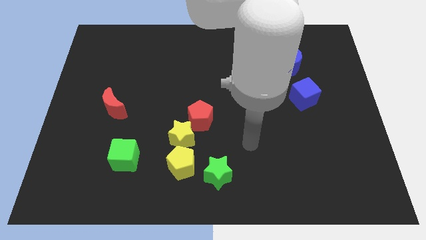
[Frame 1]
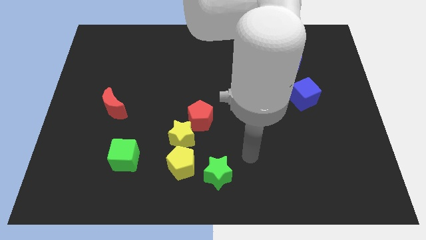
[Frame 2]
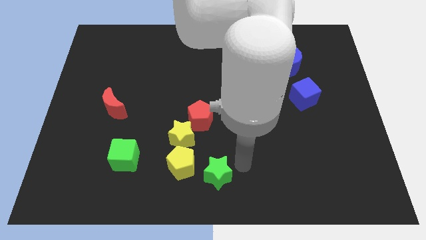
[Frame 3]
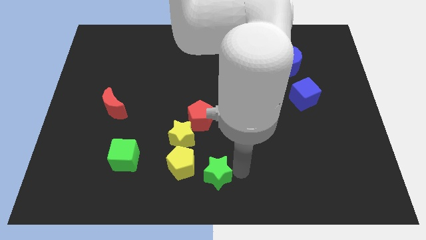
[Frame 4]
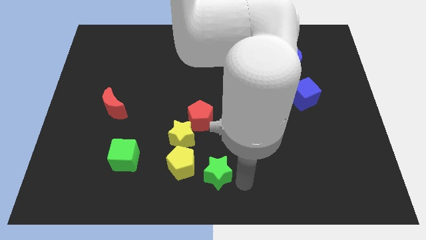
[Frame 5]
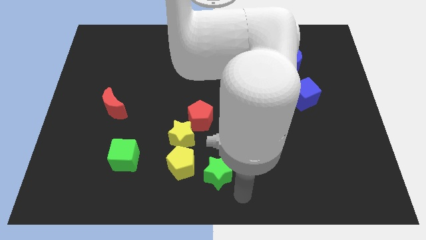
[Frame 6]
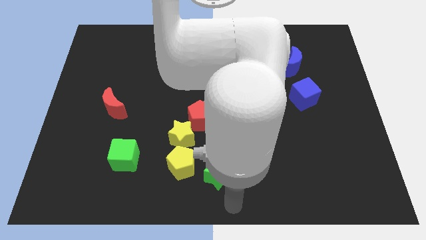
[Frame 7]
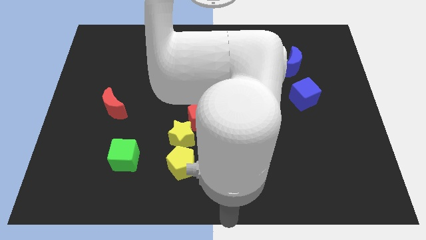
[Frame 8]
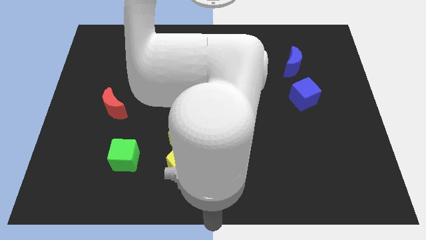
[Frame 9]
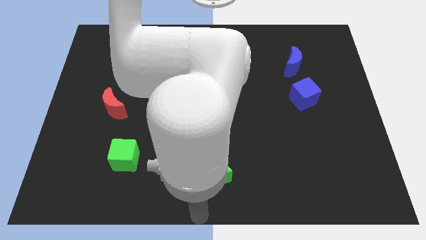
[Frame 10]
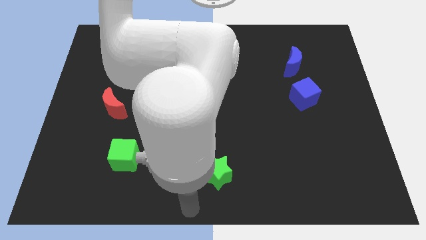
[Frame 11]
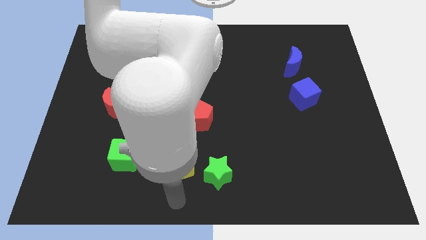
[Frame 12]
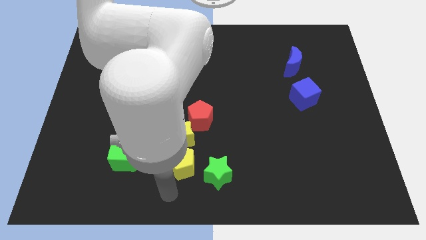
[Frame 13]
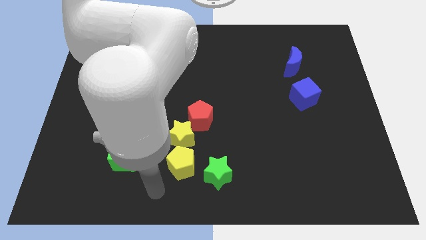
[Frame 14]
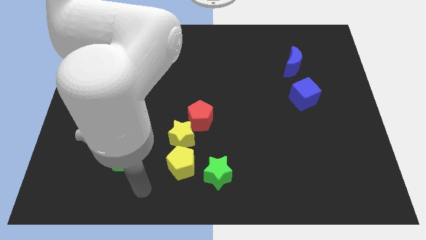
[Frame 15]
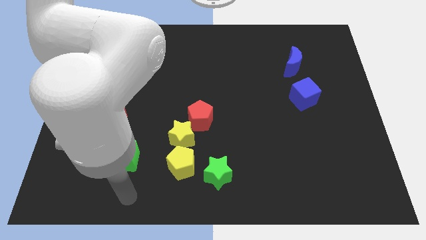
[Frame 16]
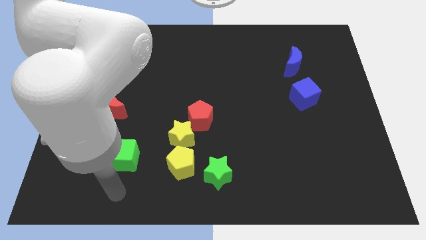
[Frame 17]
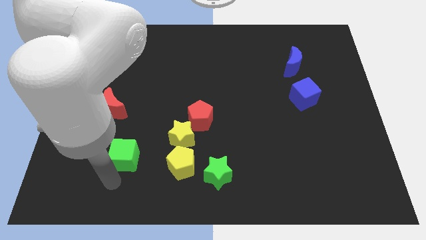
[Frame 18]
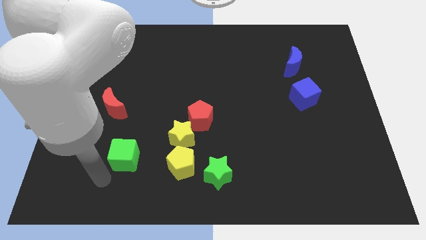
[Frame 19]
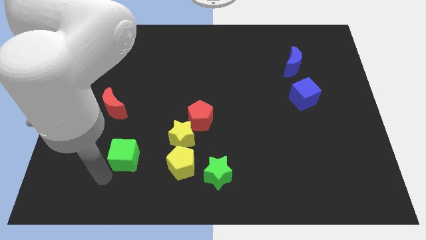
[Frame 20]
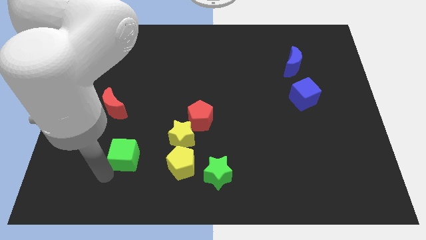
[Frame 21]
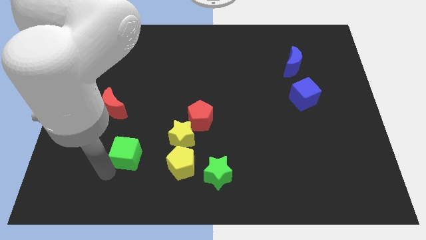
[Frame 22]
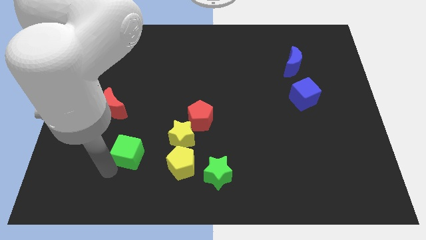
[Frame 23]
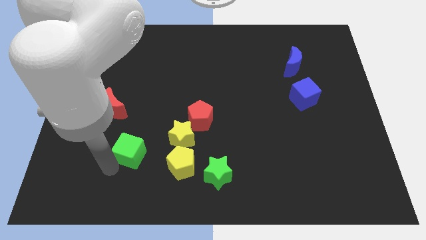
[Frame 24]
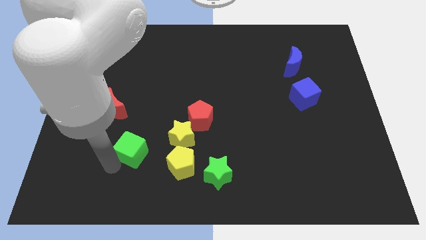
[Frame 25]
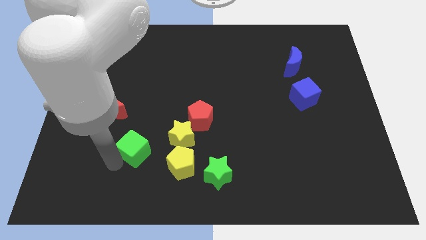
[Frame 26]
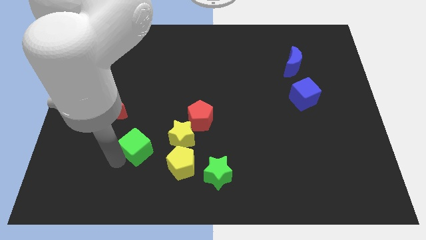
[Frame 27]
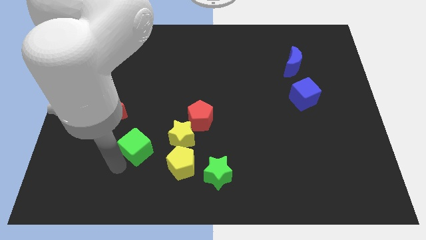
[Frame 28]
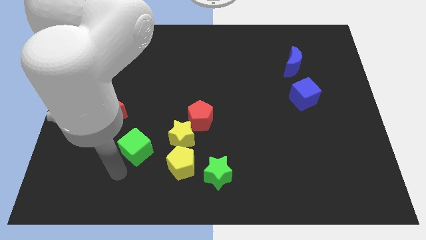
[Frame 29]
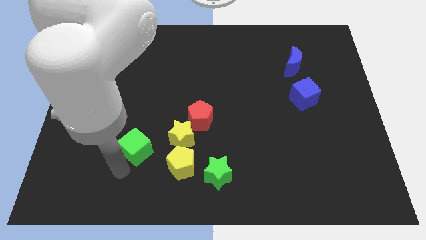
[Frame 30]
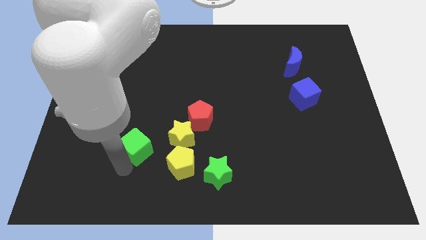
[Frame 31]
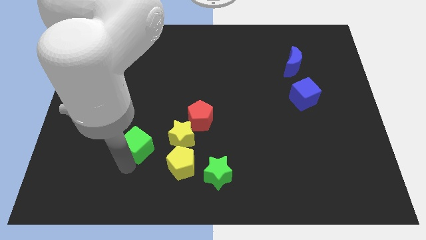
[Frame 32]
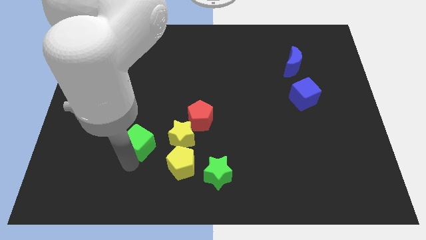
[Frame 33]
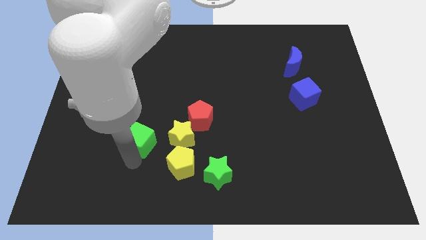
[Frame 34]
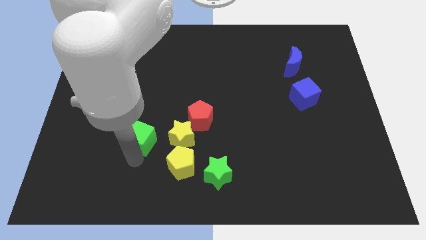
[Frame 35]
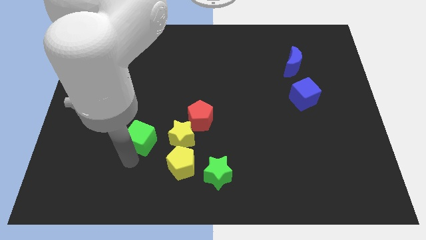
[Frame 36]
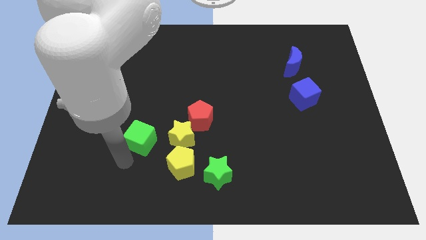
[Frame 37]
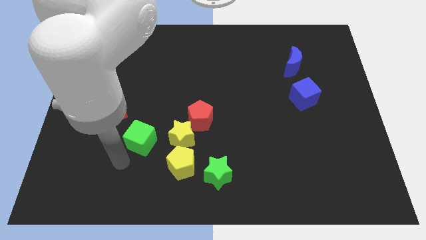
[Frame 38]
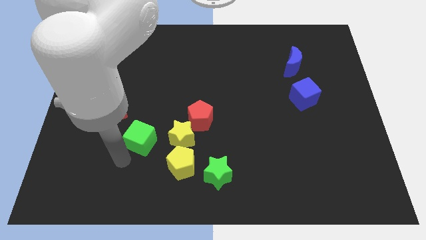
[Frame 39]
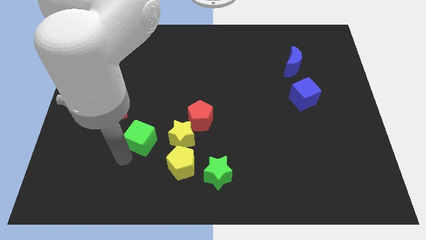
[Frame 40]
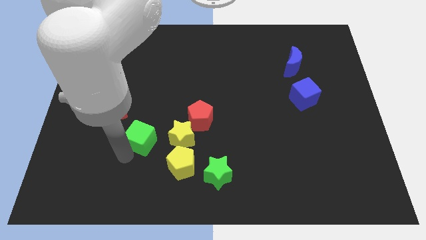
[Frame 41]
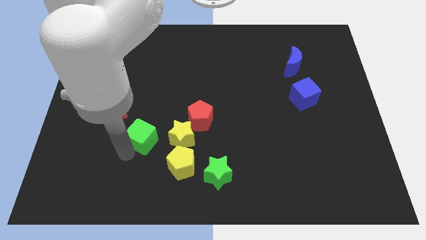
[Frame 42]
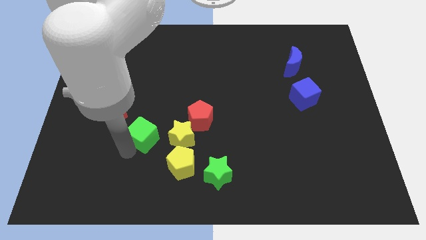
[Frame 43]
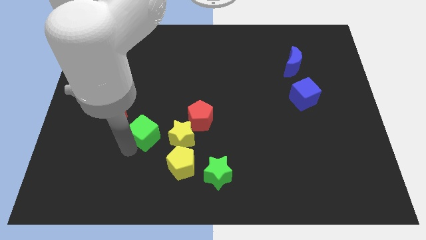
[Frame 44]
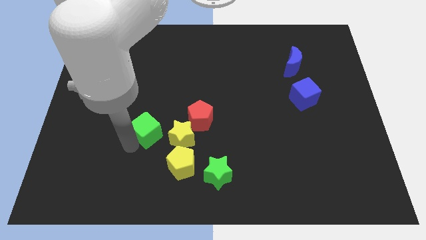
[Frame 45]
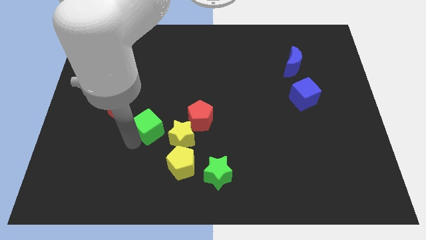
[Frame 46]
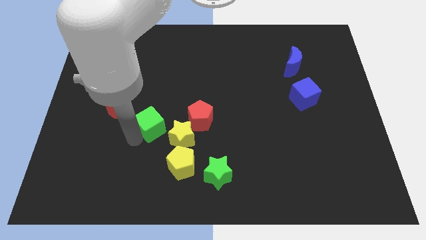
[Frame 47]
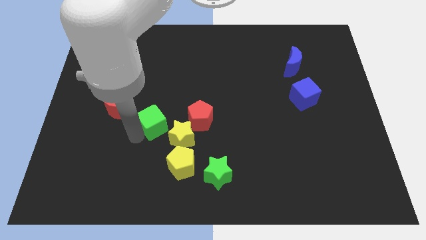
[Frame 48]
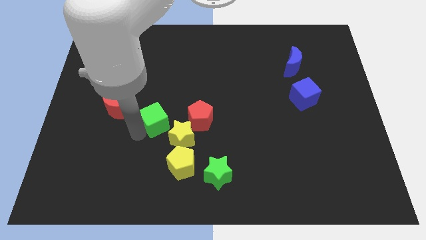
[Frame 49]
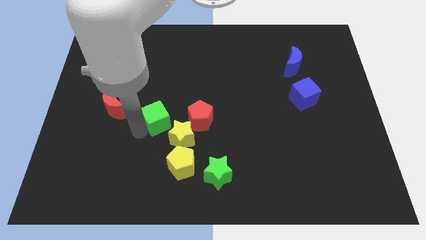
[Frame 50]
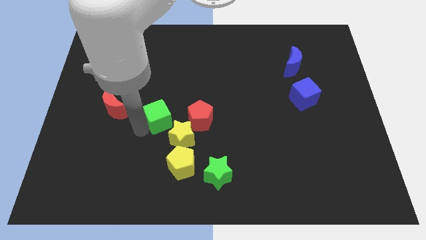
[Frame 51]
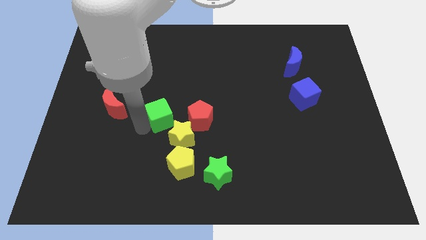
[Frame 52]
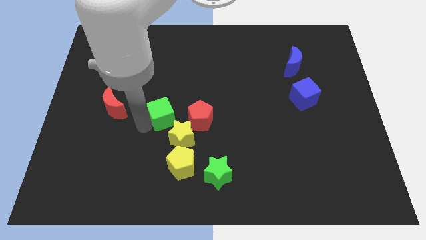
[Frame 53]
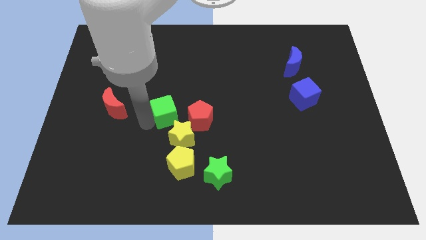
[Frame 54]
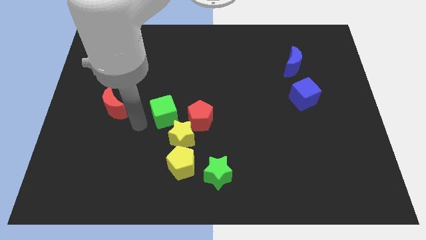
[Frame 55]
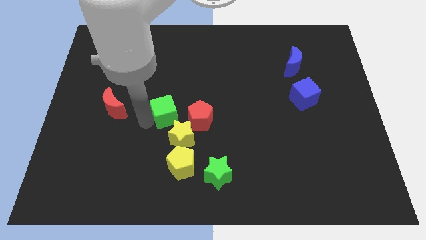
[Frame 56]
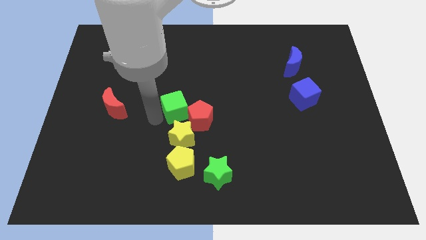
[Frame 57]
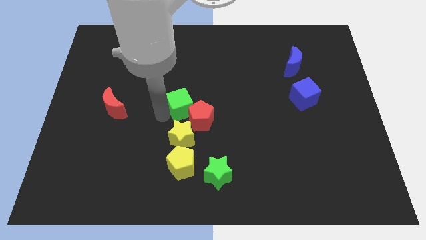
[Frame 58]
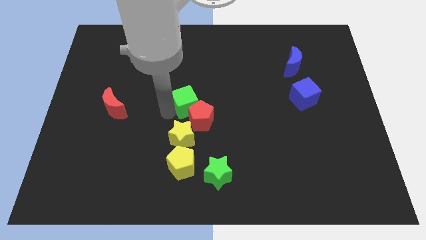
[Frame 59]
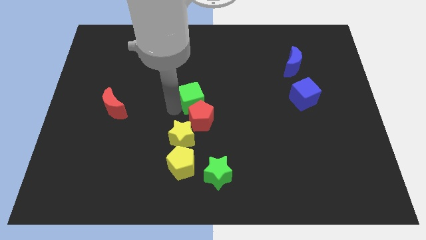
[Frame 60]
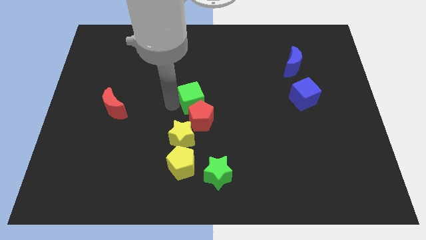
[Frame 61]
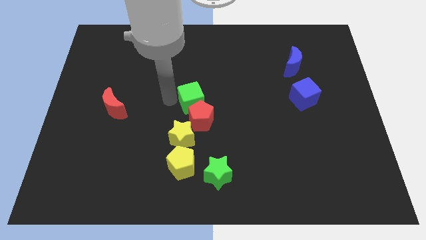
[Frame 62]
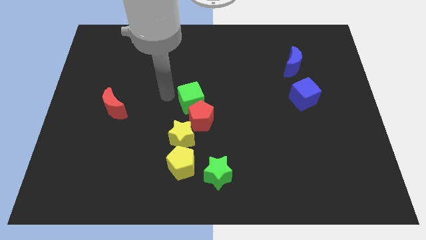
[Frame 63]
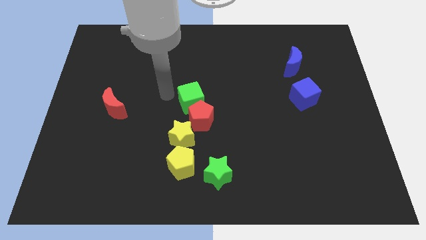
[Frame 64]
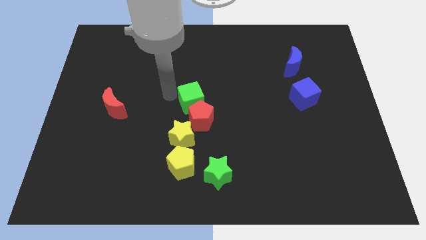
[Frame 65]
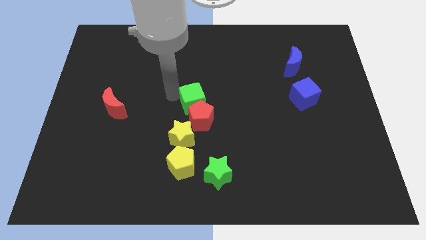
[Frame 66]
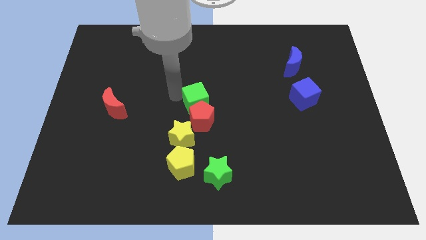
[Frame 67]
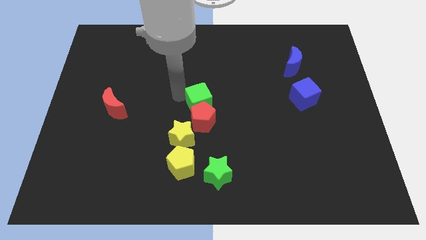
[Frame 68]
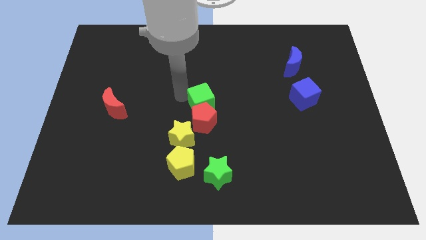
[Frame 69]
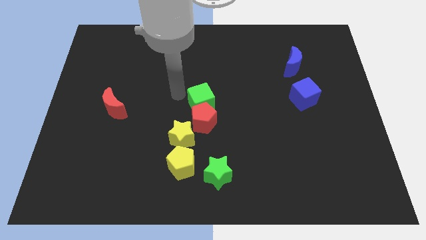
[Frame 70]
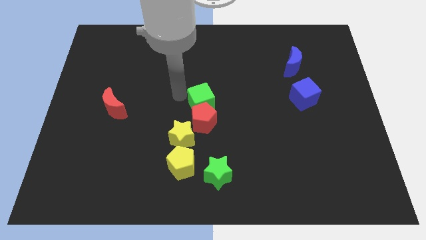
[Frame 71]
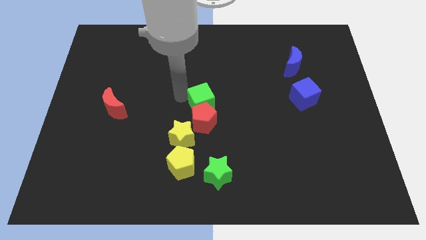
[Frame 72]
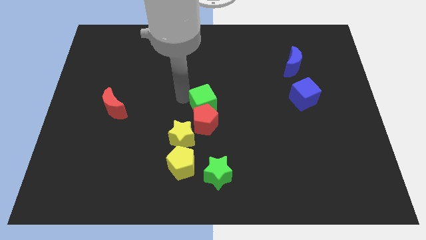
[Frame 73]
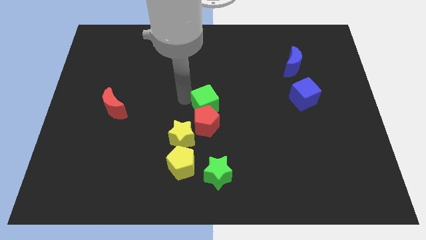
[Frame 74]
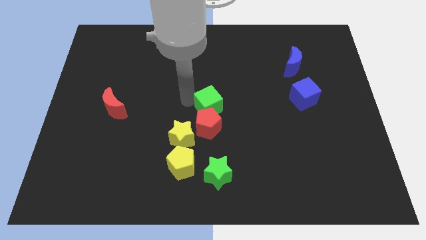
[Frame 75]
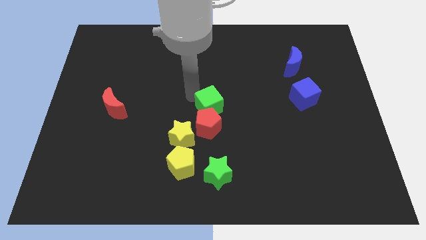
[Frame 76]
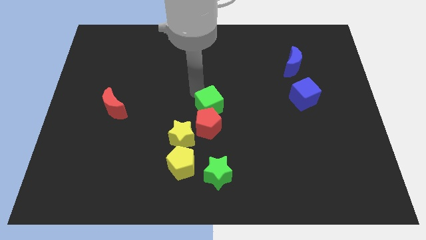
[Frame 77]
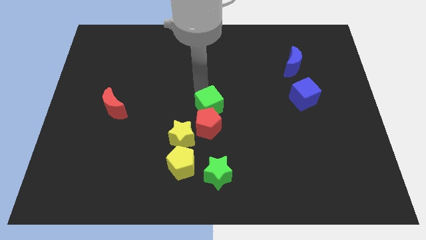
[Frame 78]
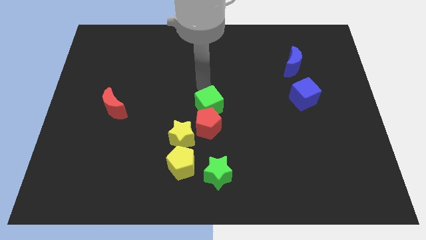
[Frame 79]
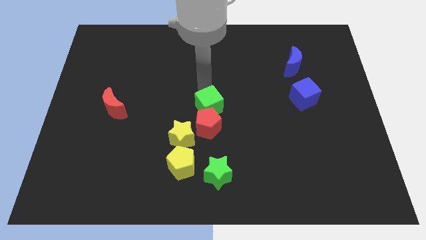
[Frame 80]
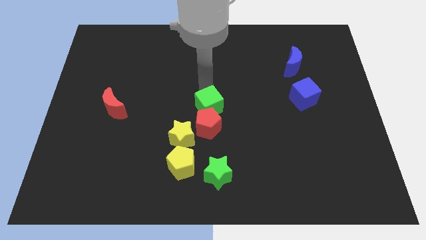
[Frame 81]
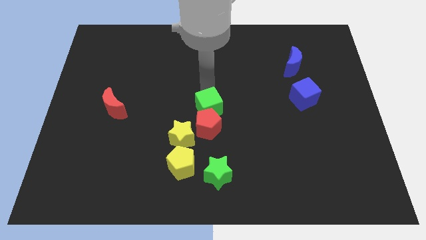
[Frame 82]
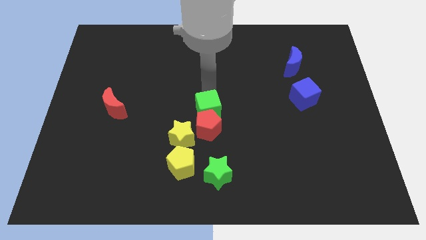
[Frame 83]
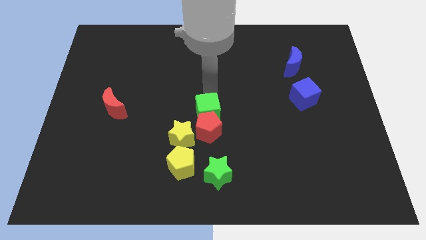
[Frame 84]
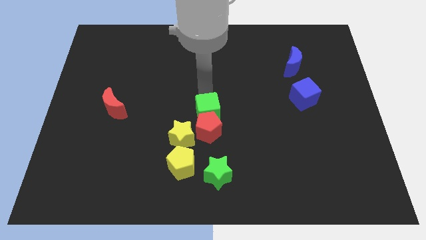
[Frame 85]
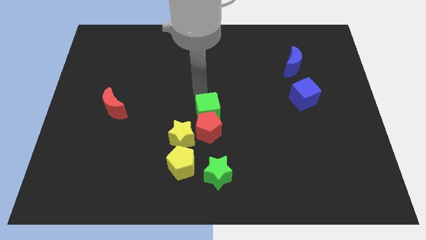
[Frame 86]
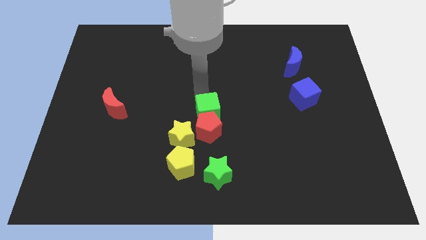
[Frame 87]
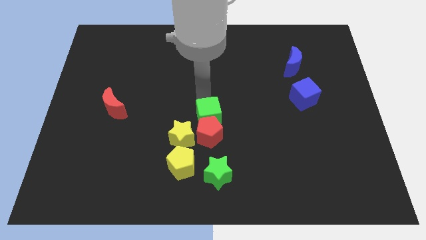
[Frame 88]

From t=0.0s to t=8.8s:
move the green cube to the top of the green star
